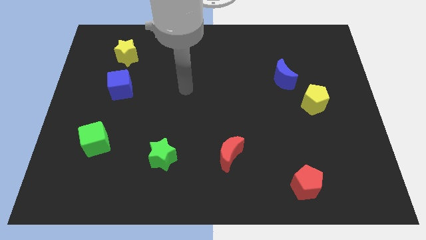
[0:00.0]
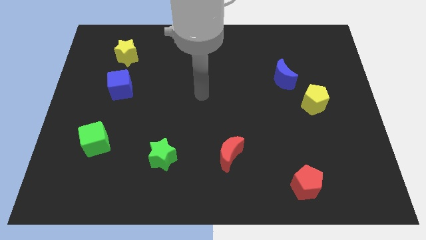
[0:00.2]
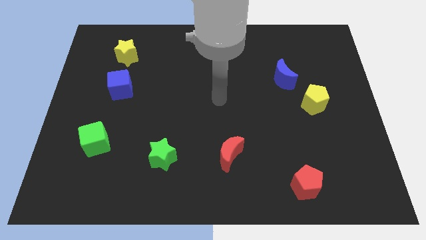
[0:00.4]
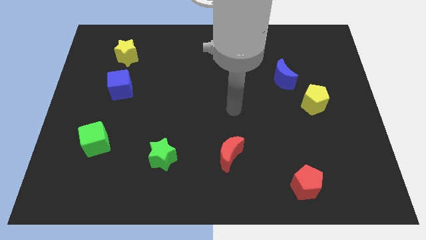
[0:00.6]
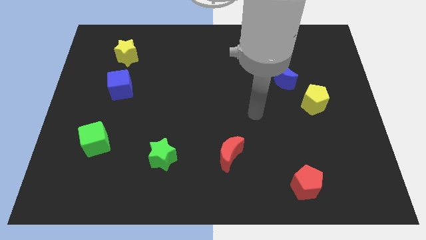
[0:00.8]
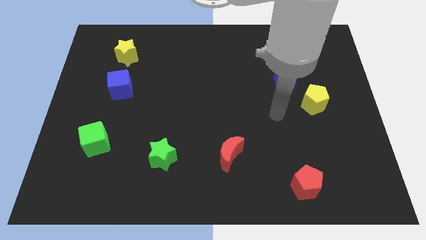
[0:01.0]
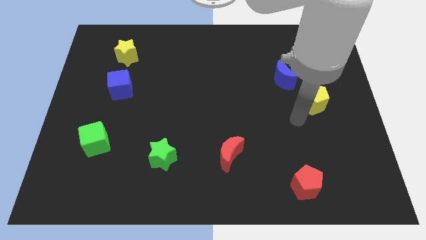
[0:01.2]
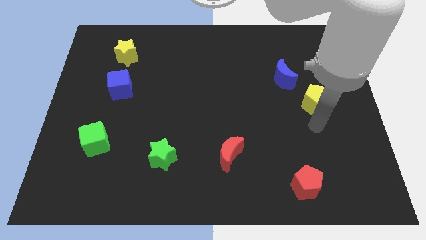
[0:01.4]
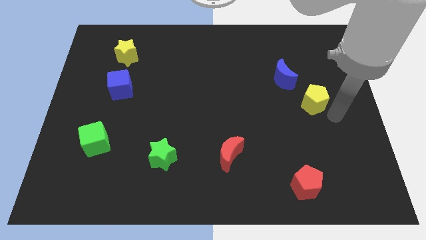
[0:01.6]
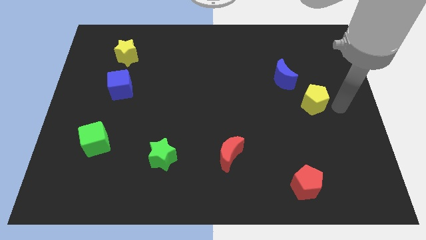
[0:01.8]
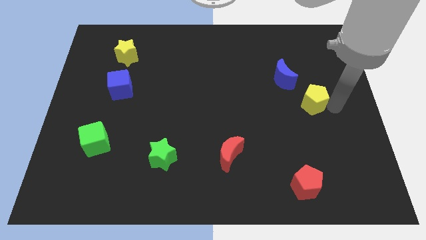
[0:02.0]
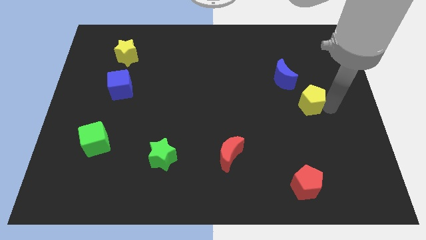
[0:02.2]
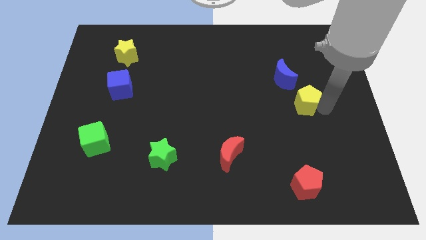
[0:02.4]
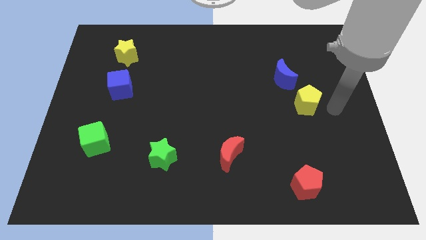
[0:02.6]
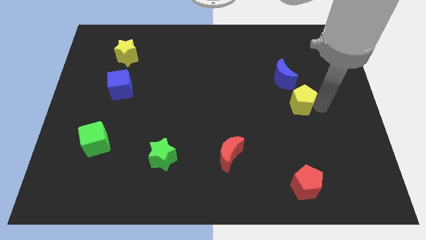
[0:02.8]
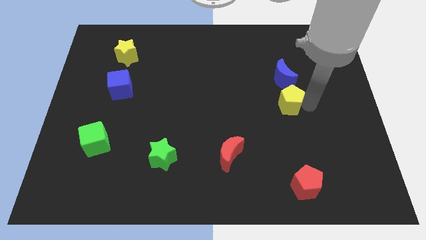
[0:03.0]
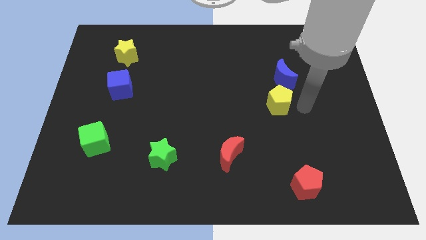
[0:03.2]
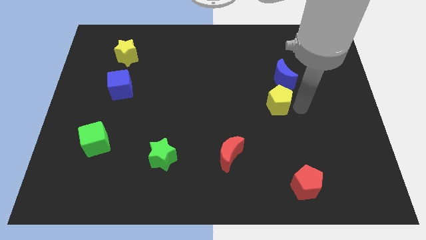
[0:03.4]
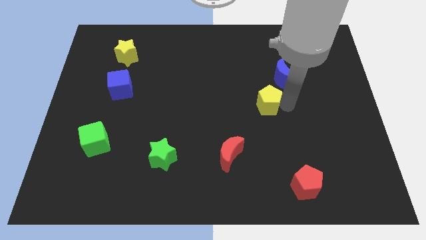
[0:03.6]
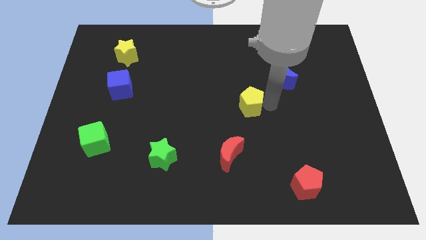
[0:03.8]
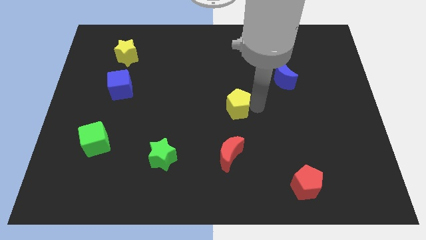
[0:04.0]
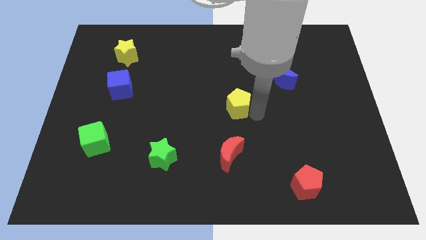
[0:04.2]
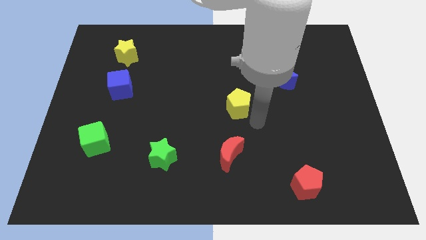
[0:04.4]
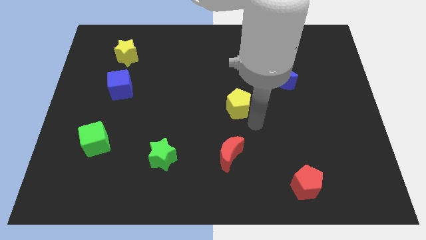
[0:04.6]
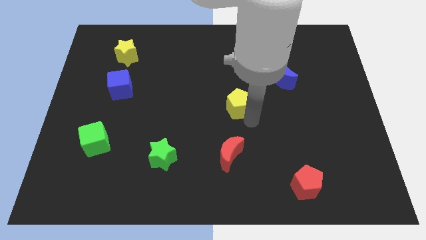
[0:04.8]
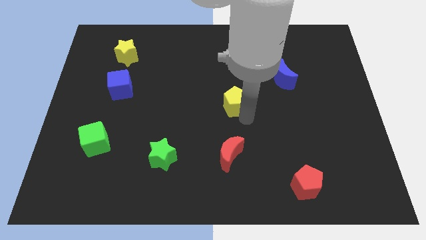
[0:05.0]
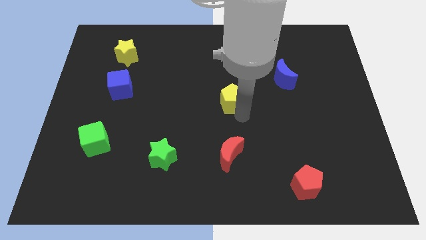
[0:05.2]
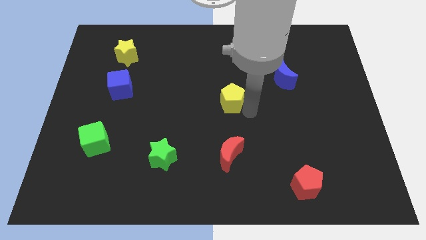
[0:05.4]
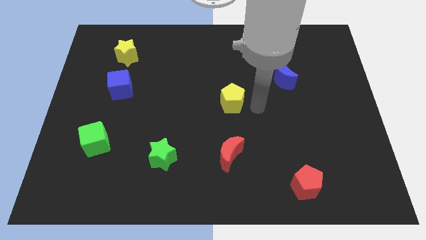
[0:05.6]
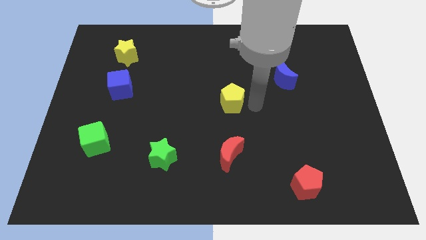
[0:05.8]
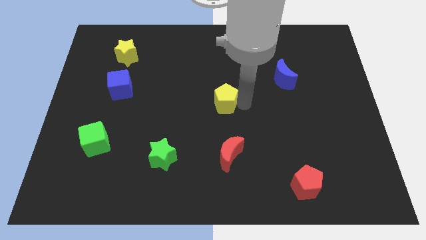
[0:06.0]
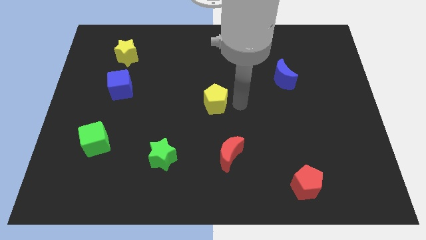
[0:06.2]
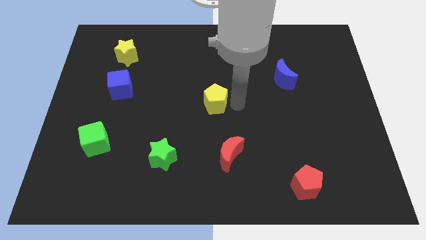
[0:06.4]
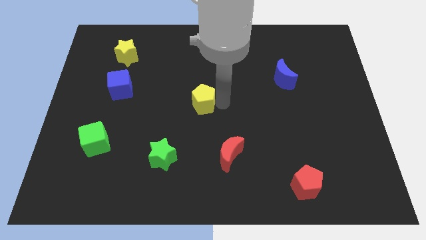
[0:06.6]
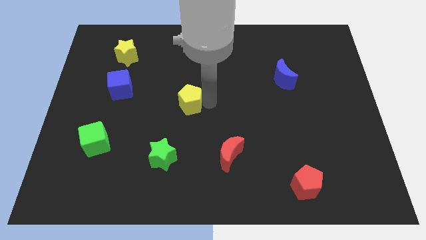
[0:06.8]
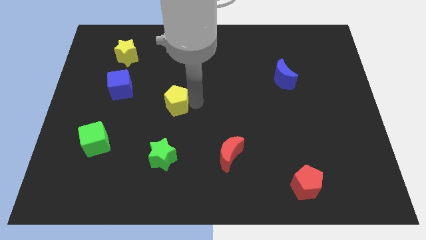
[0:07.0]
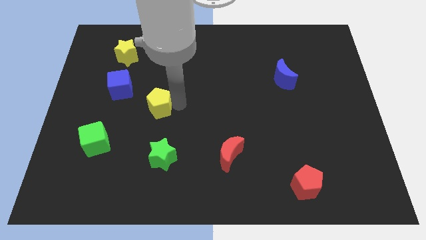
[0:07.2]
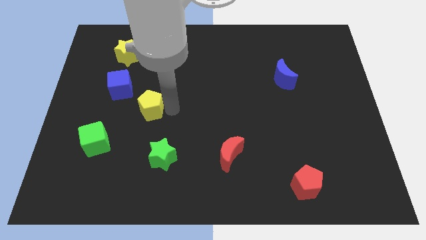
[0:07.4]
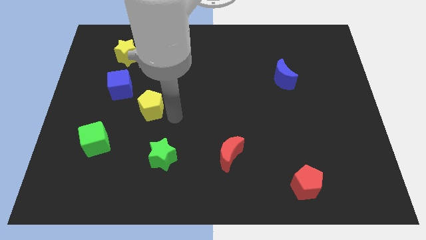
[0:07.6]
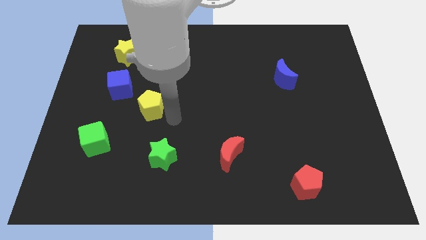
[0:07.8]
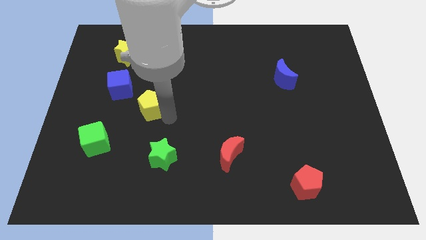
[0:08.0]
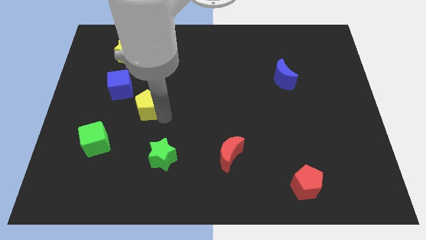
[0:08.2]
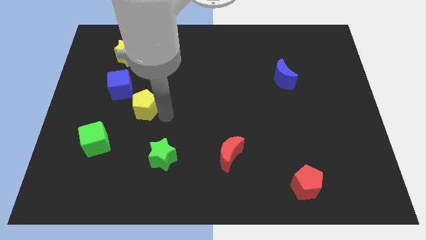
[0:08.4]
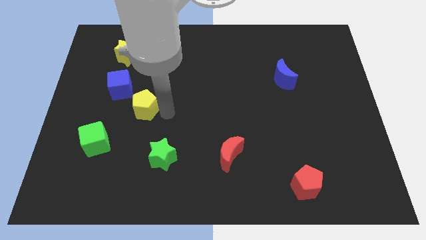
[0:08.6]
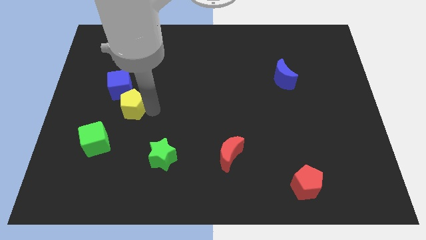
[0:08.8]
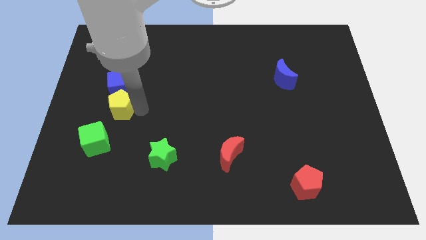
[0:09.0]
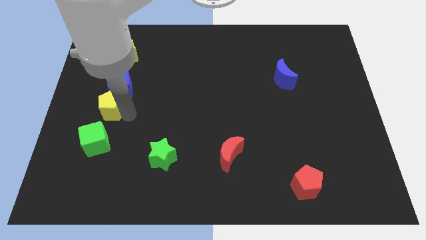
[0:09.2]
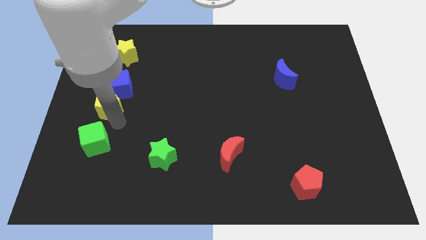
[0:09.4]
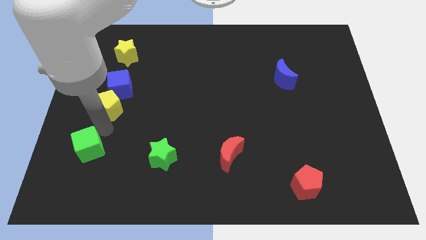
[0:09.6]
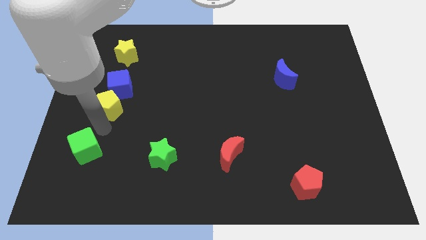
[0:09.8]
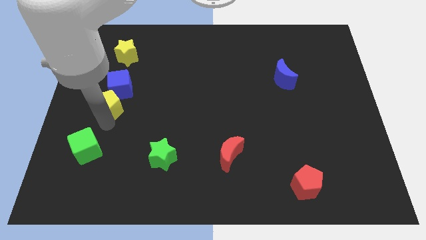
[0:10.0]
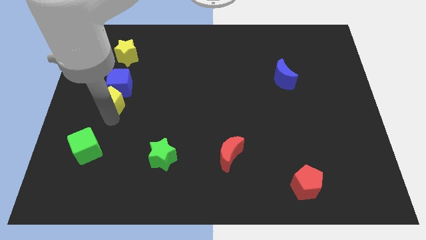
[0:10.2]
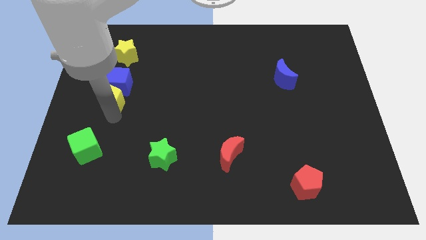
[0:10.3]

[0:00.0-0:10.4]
push the yellow pentagon to the bottom of the yellow star

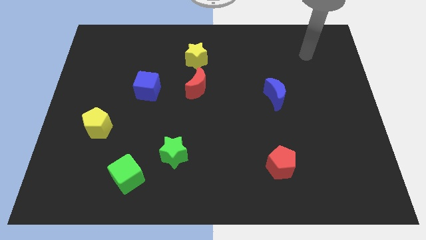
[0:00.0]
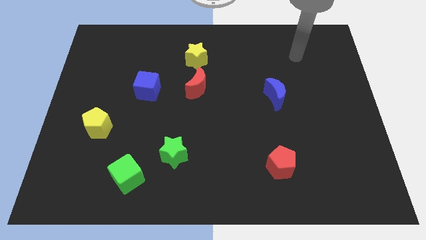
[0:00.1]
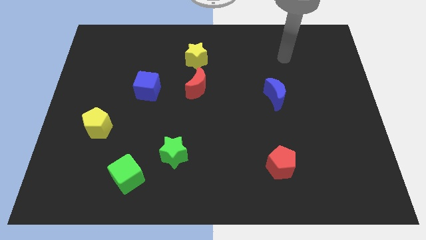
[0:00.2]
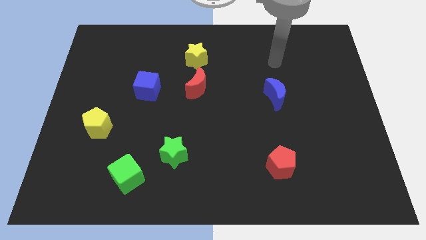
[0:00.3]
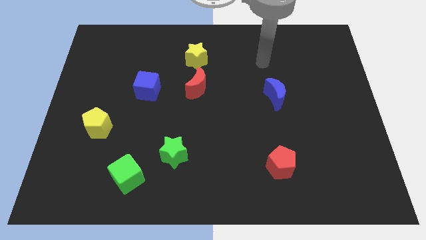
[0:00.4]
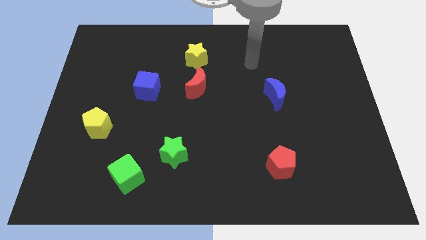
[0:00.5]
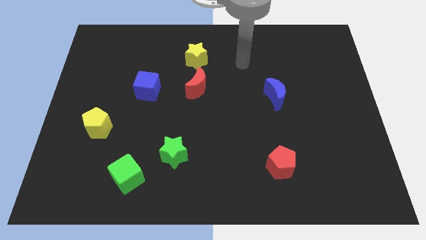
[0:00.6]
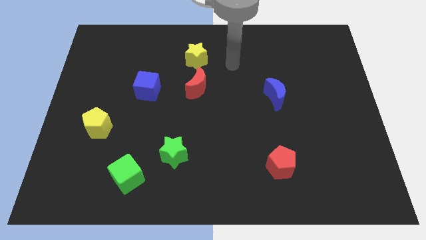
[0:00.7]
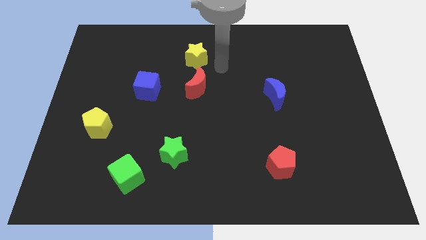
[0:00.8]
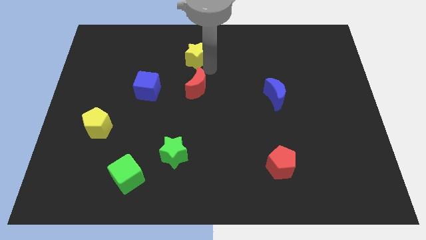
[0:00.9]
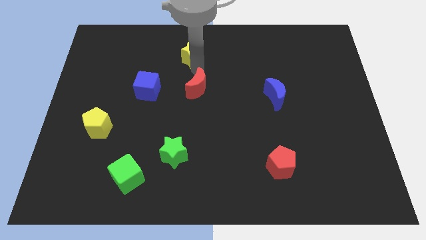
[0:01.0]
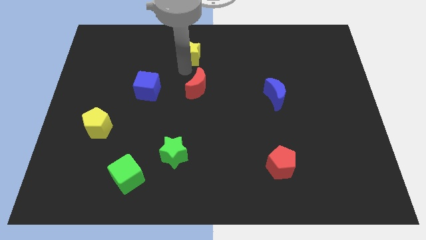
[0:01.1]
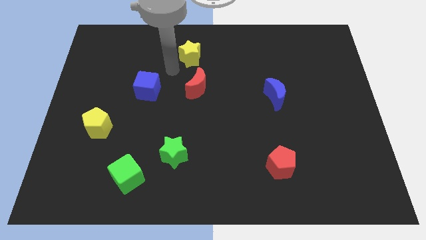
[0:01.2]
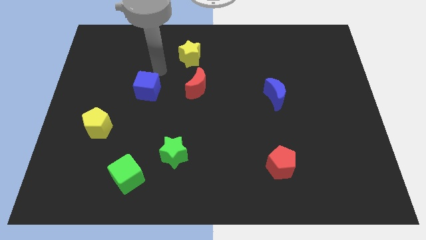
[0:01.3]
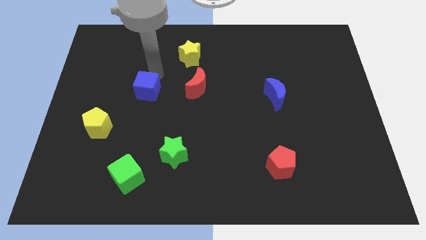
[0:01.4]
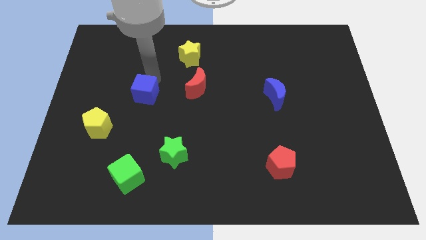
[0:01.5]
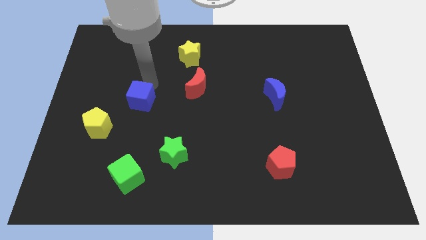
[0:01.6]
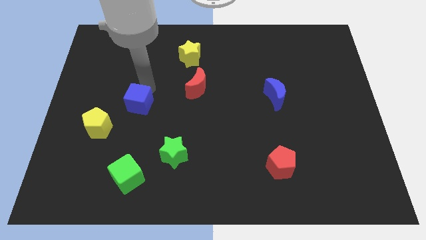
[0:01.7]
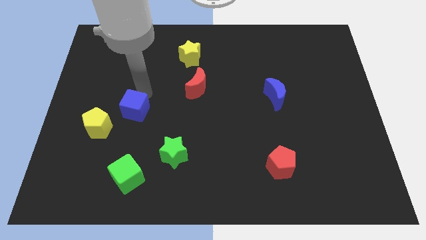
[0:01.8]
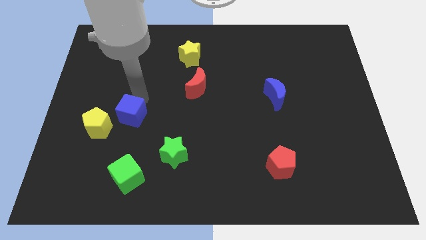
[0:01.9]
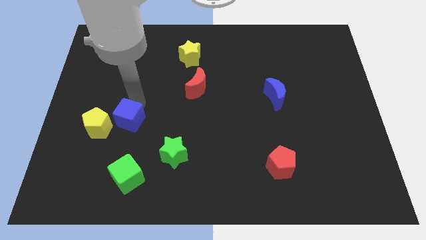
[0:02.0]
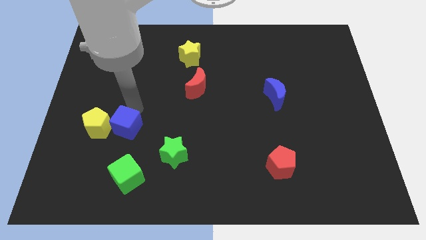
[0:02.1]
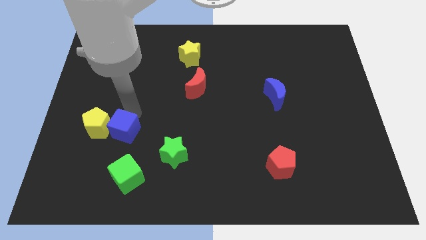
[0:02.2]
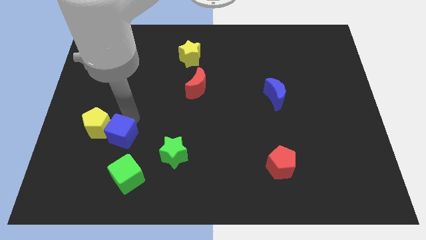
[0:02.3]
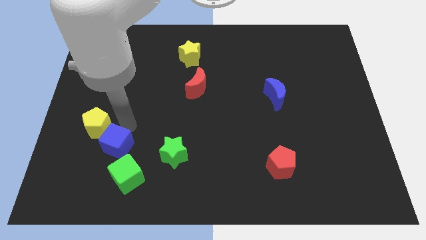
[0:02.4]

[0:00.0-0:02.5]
put the blue cube to the bottom side of the yellow pentagon
